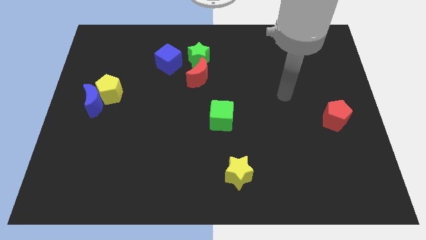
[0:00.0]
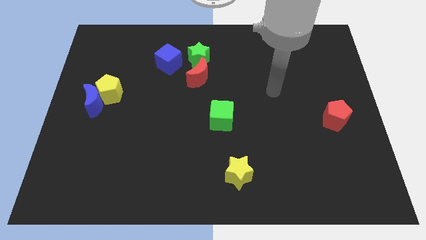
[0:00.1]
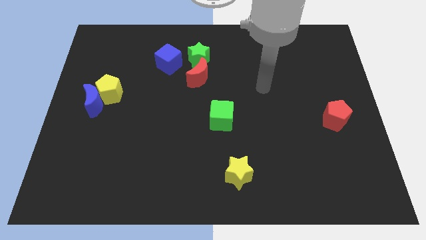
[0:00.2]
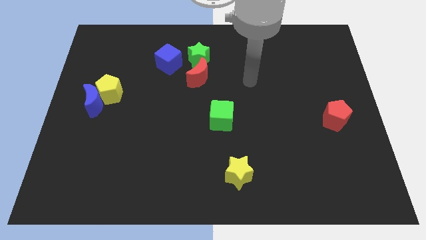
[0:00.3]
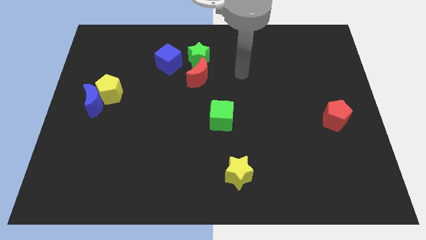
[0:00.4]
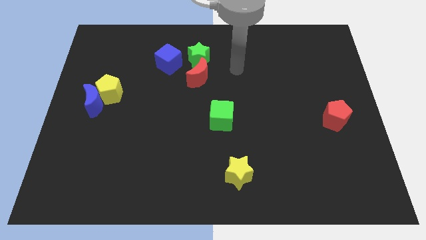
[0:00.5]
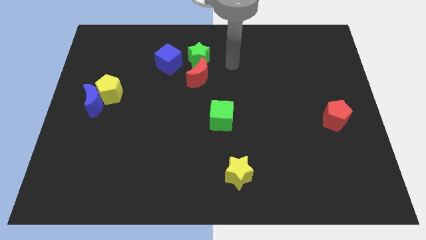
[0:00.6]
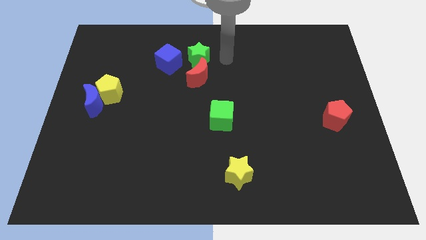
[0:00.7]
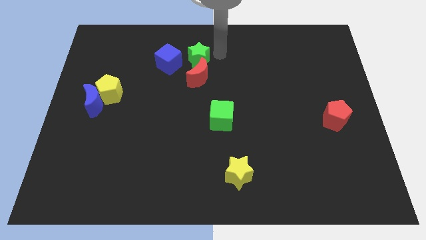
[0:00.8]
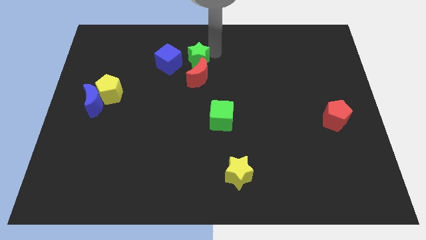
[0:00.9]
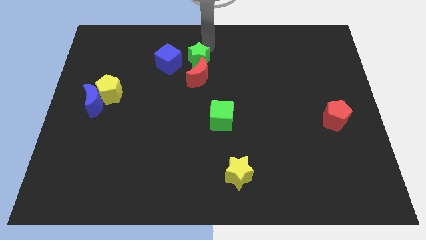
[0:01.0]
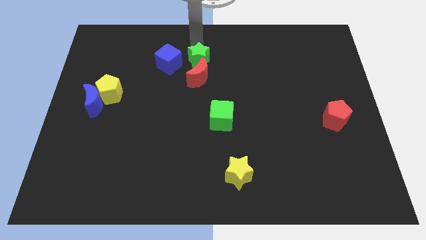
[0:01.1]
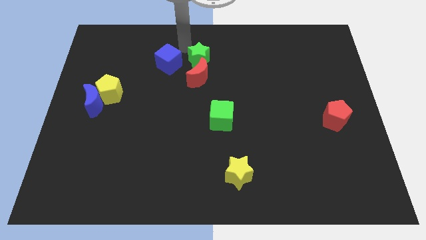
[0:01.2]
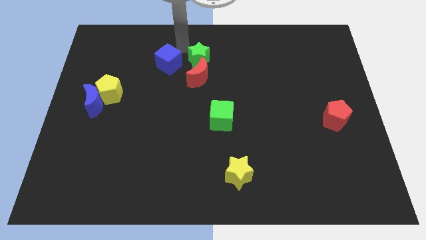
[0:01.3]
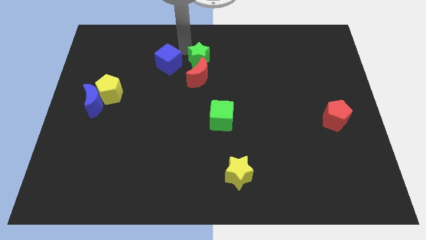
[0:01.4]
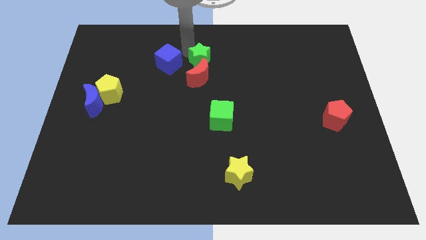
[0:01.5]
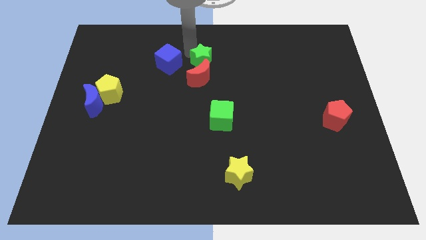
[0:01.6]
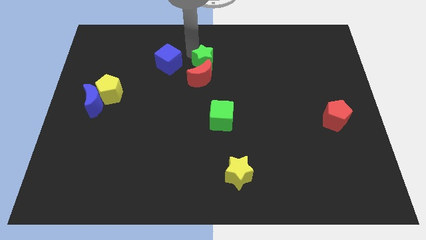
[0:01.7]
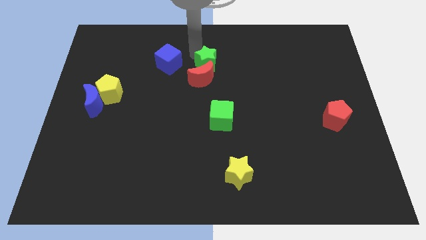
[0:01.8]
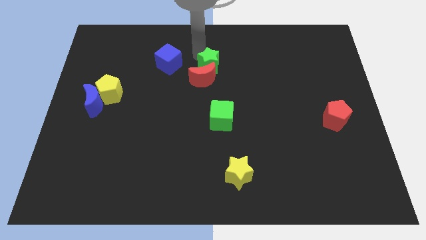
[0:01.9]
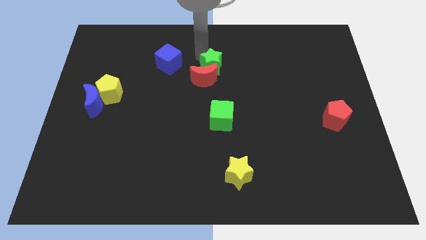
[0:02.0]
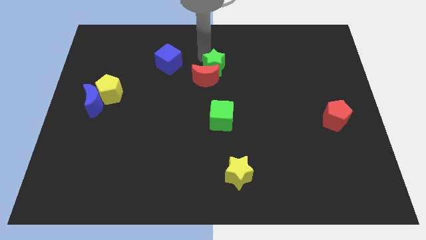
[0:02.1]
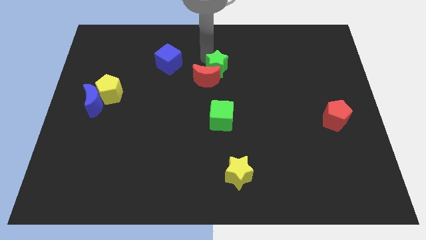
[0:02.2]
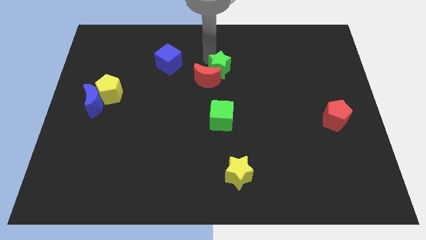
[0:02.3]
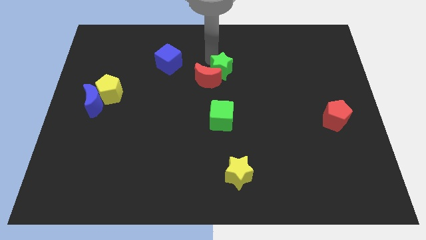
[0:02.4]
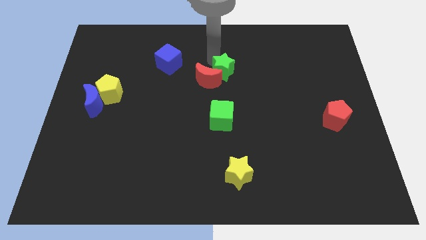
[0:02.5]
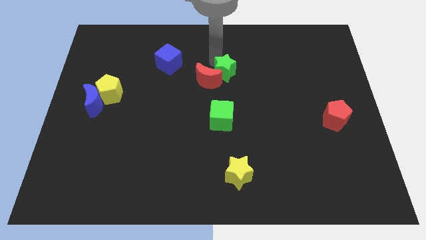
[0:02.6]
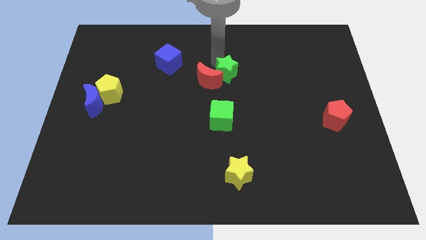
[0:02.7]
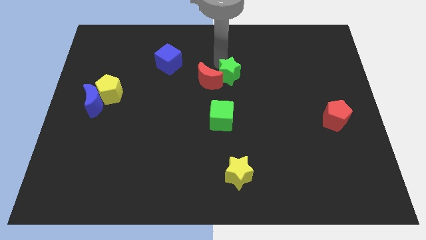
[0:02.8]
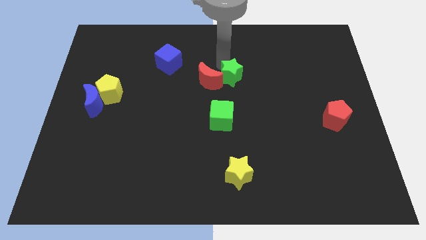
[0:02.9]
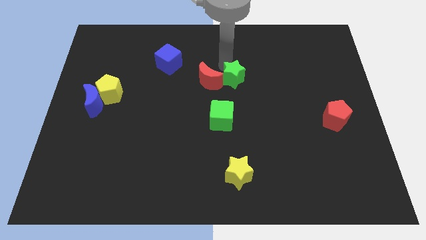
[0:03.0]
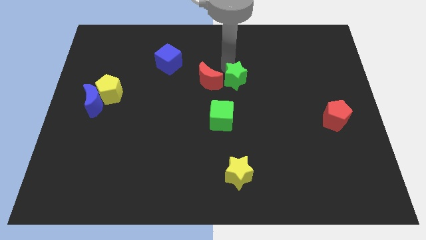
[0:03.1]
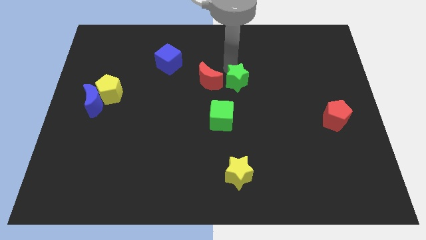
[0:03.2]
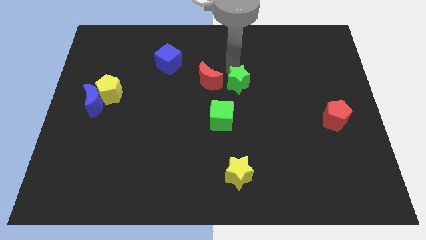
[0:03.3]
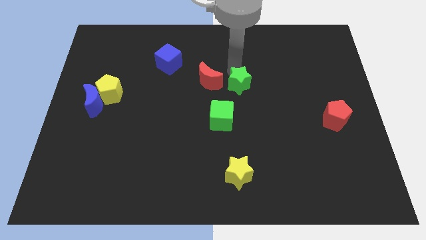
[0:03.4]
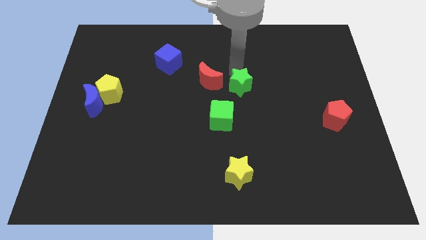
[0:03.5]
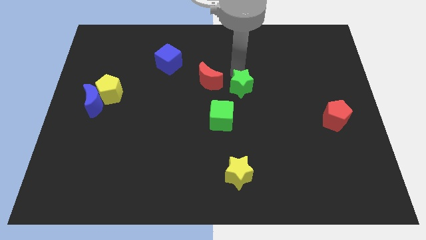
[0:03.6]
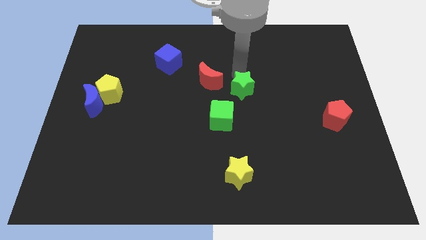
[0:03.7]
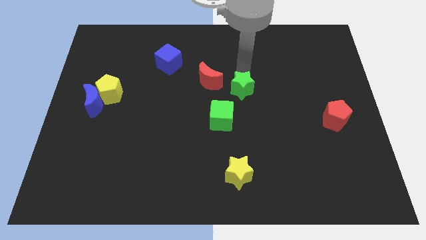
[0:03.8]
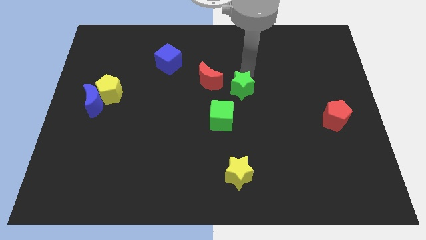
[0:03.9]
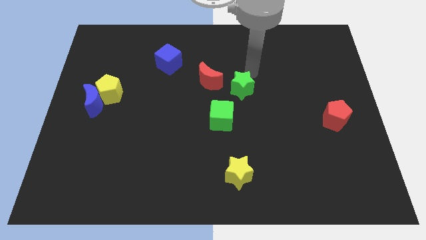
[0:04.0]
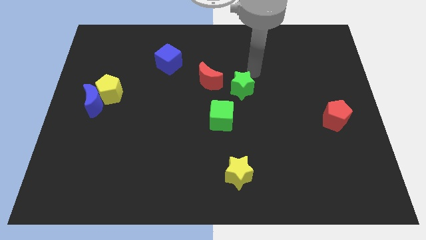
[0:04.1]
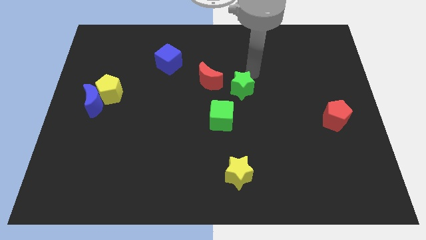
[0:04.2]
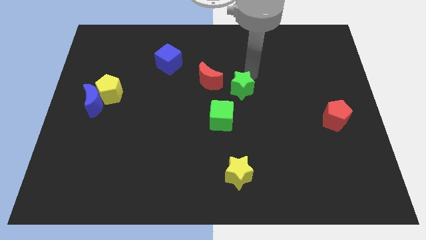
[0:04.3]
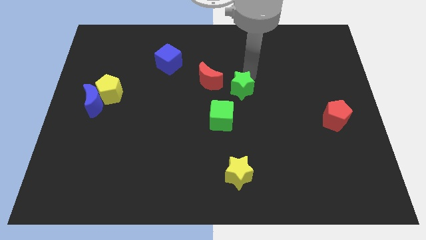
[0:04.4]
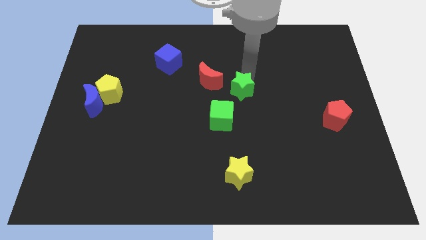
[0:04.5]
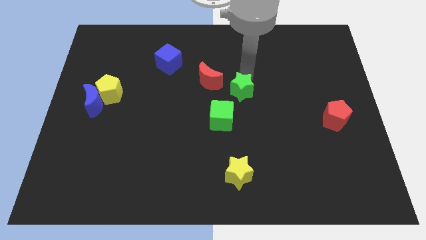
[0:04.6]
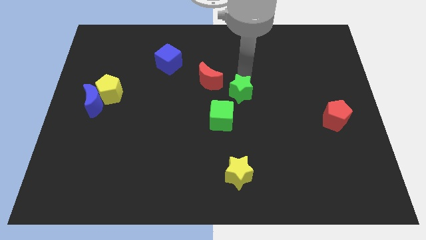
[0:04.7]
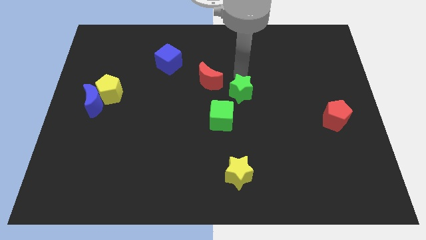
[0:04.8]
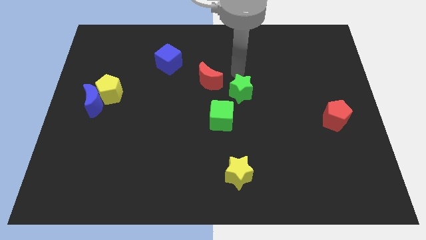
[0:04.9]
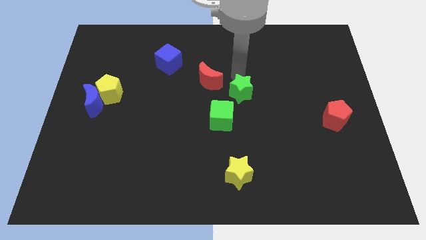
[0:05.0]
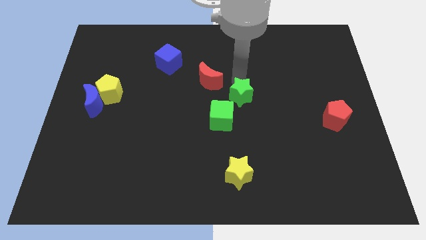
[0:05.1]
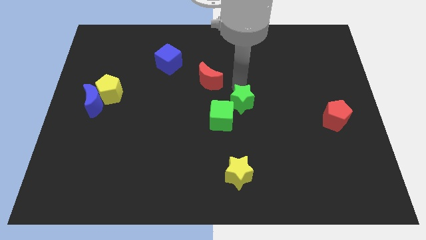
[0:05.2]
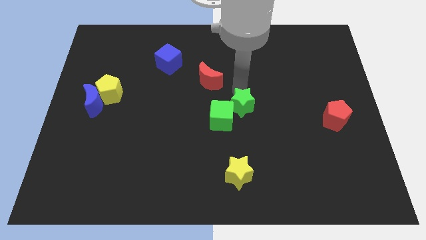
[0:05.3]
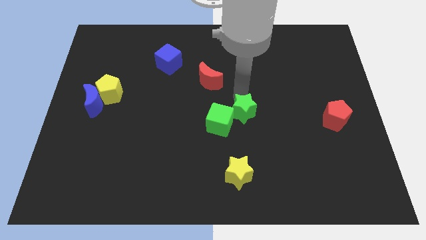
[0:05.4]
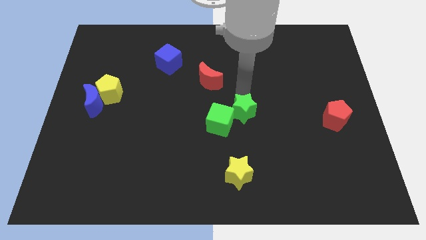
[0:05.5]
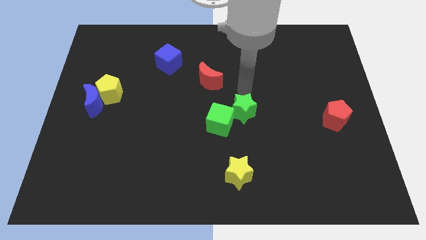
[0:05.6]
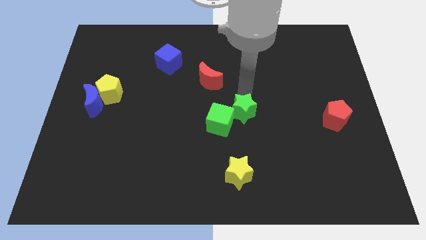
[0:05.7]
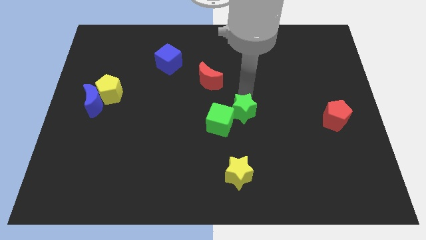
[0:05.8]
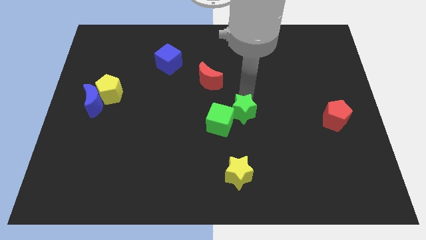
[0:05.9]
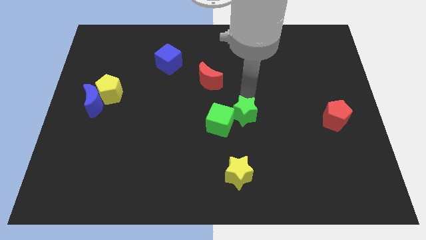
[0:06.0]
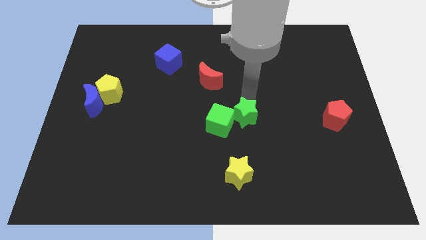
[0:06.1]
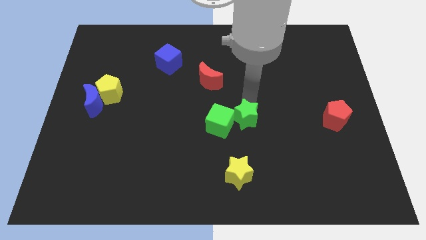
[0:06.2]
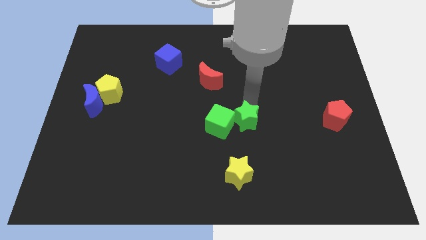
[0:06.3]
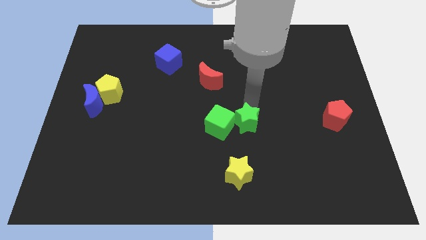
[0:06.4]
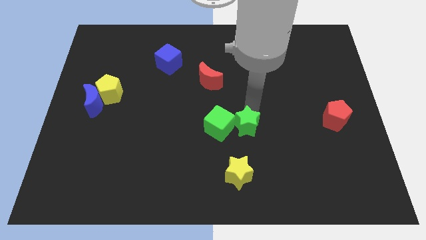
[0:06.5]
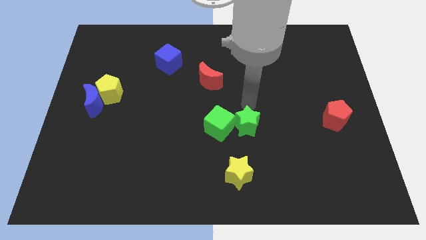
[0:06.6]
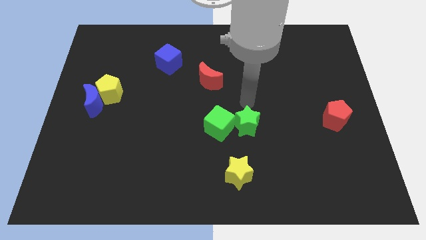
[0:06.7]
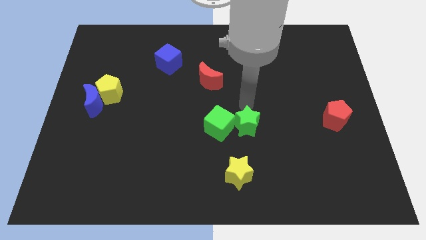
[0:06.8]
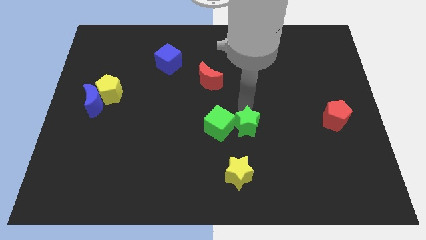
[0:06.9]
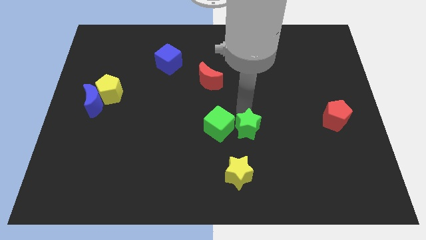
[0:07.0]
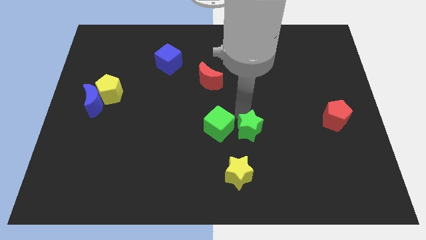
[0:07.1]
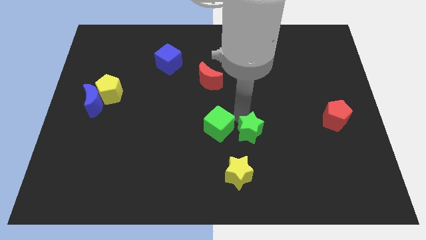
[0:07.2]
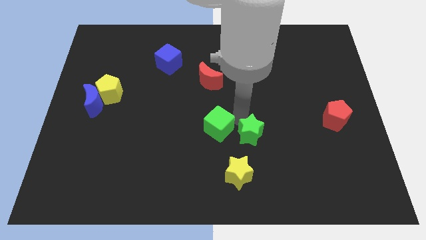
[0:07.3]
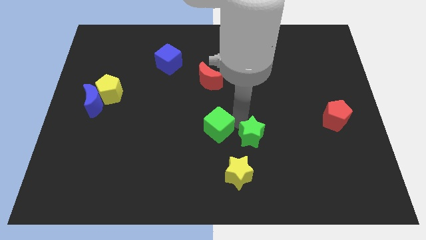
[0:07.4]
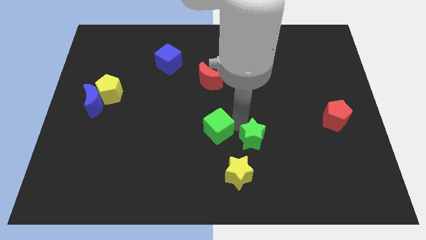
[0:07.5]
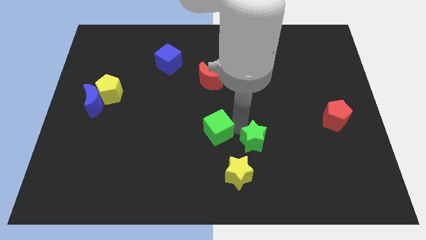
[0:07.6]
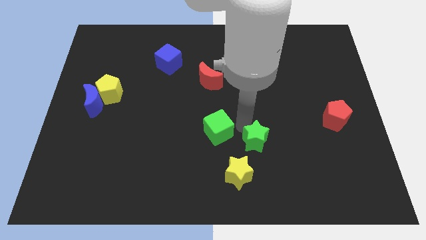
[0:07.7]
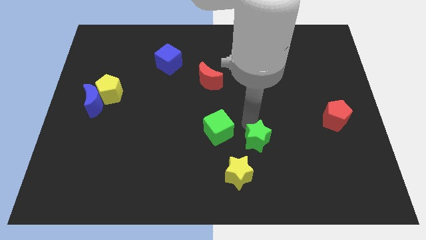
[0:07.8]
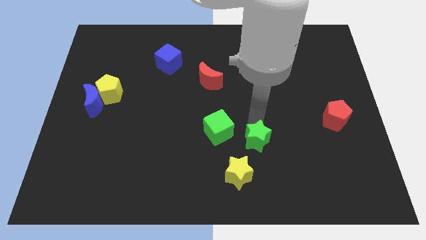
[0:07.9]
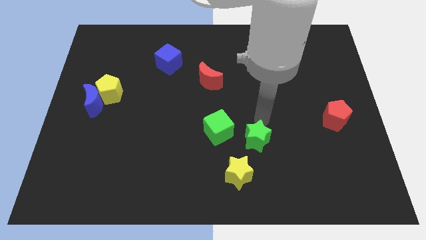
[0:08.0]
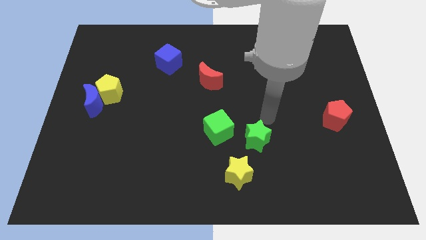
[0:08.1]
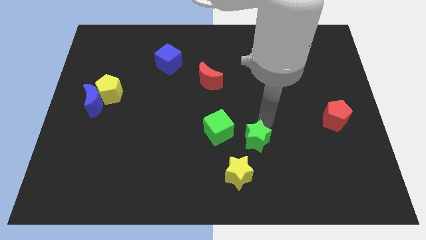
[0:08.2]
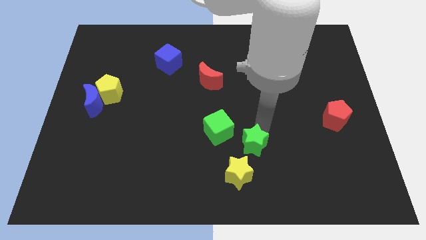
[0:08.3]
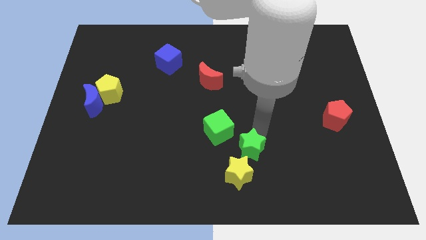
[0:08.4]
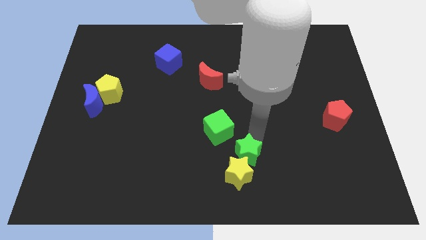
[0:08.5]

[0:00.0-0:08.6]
put the green star close to the yellow star
